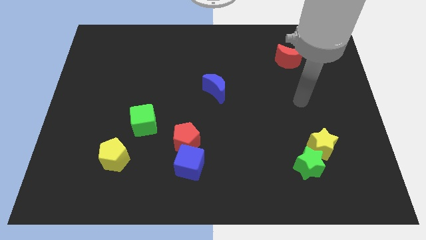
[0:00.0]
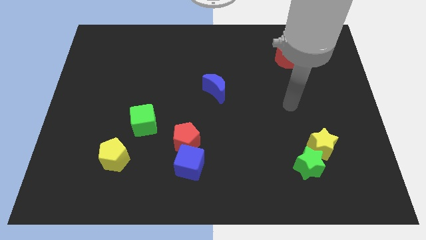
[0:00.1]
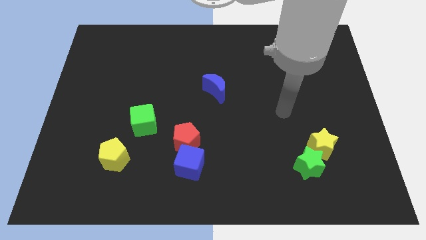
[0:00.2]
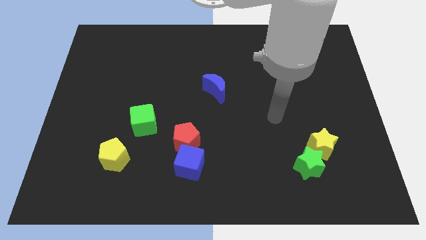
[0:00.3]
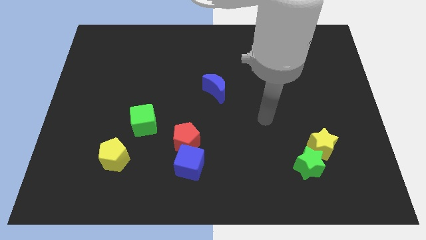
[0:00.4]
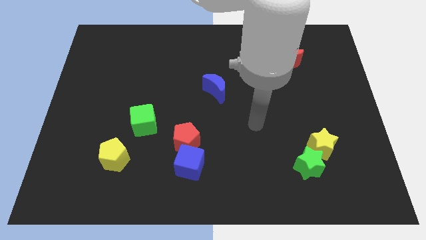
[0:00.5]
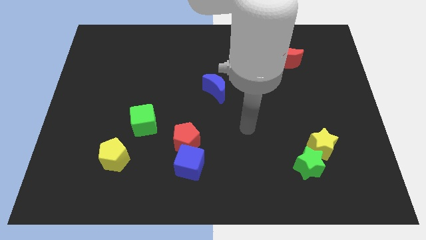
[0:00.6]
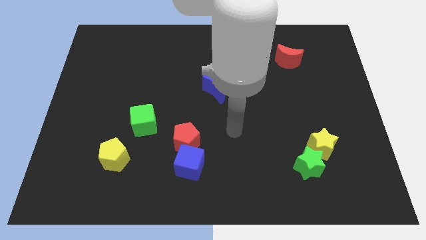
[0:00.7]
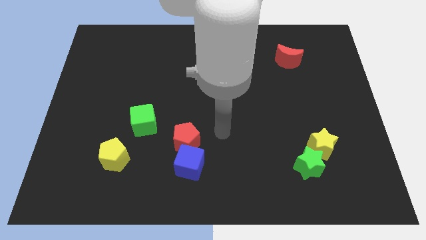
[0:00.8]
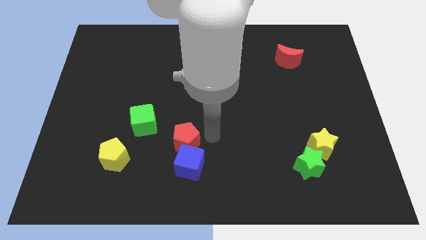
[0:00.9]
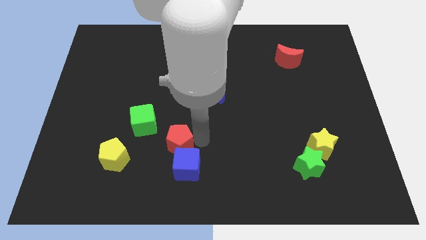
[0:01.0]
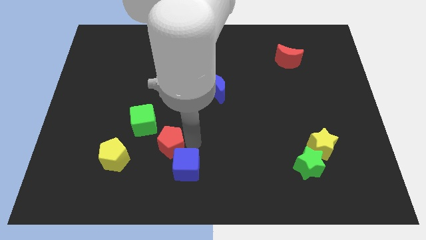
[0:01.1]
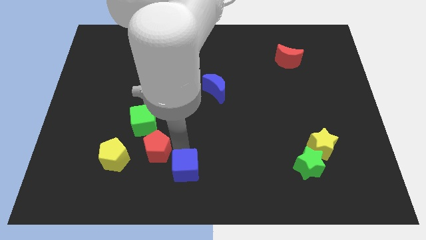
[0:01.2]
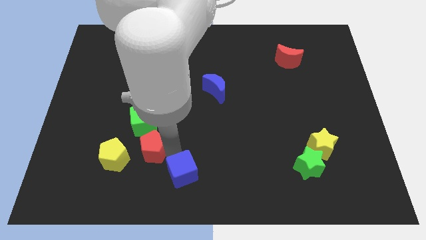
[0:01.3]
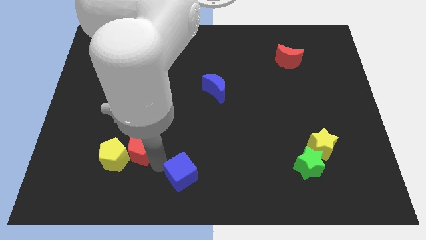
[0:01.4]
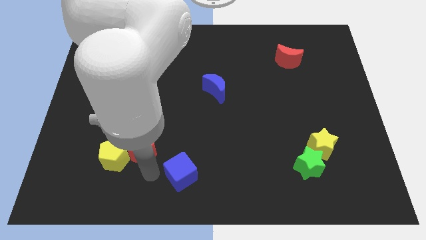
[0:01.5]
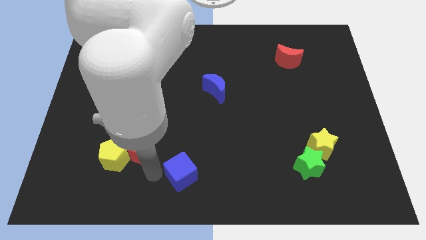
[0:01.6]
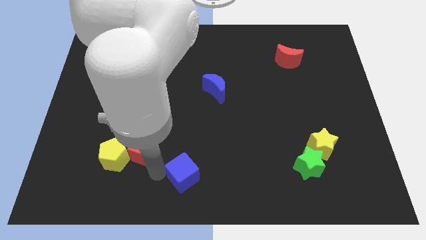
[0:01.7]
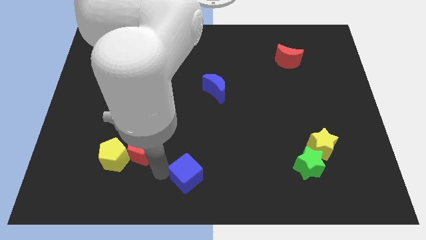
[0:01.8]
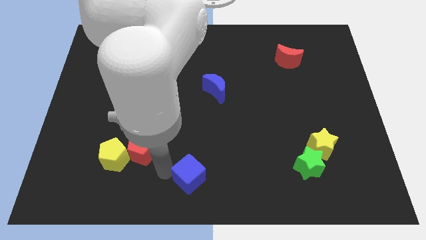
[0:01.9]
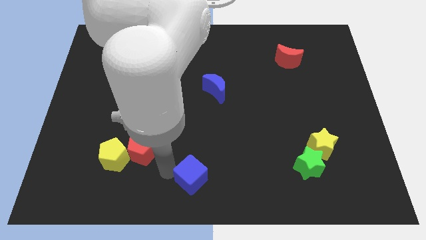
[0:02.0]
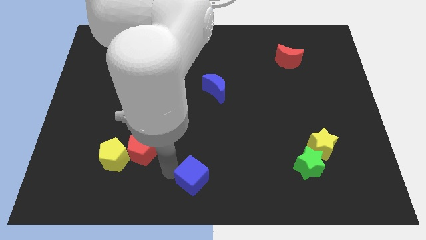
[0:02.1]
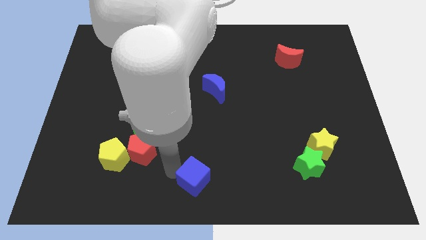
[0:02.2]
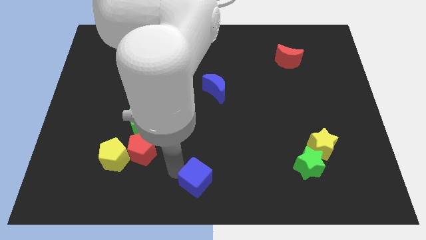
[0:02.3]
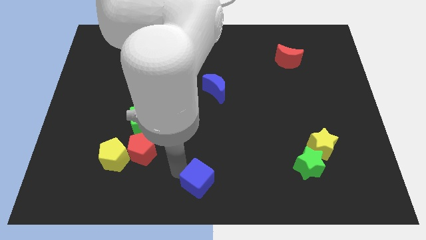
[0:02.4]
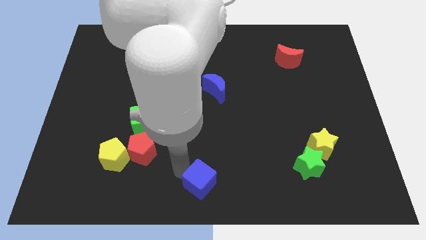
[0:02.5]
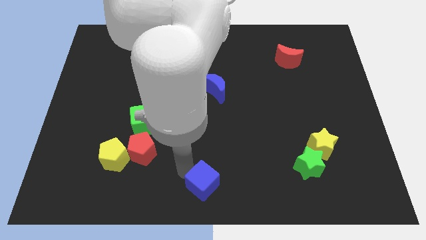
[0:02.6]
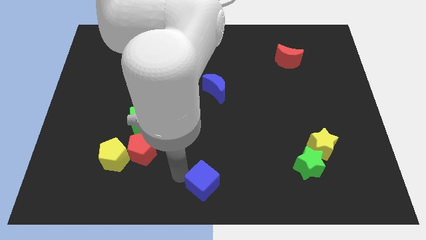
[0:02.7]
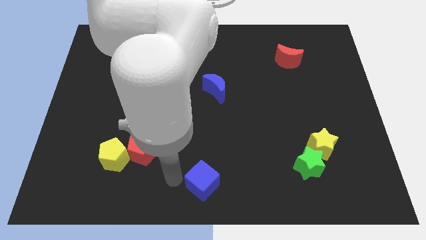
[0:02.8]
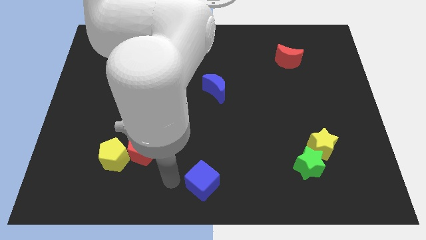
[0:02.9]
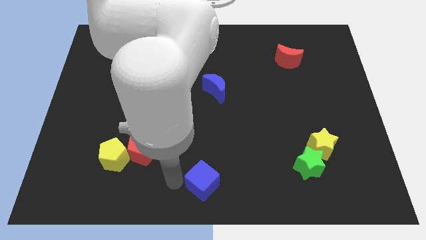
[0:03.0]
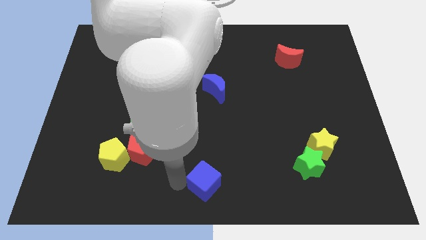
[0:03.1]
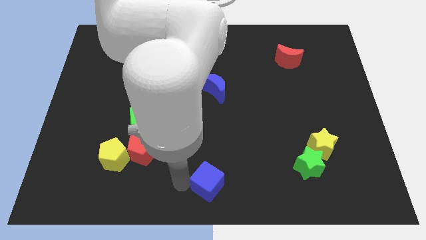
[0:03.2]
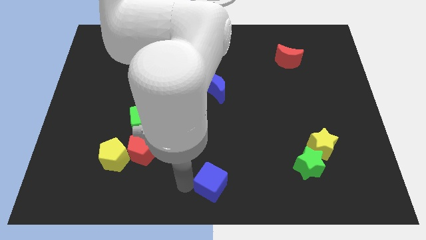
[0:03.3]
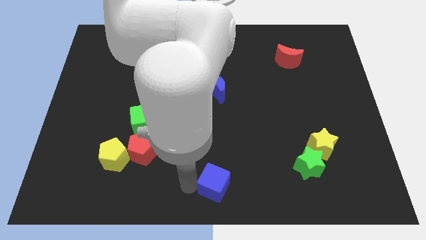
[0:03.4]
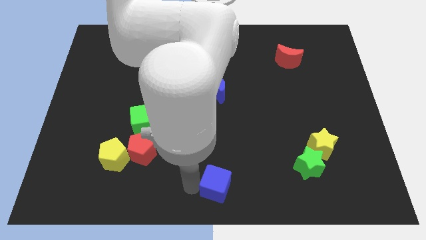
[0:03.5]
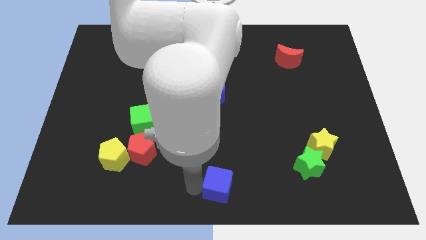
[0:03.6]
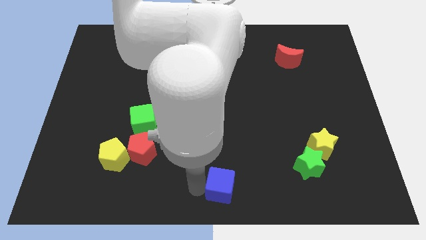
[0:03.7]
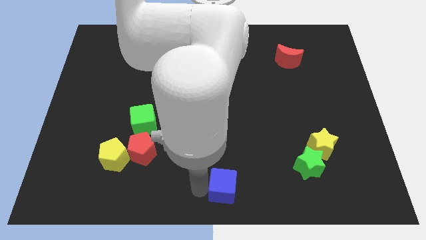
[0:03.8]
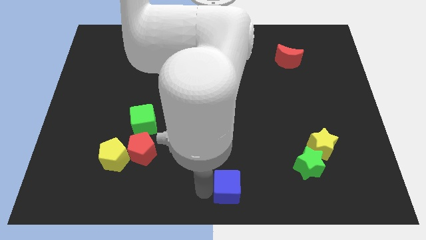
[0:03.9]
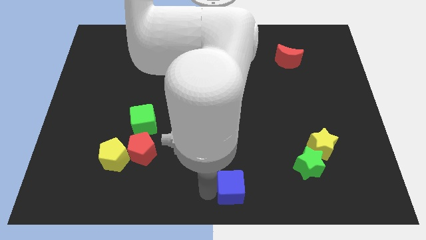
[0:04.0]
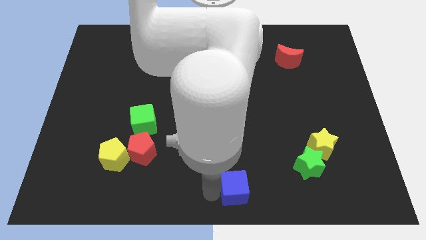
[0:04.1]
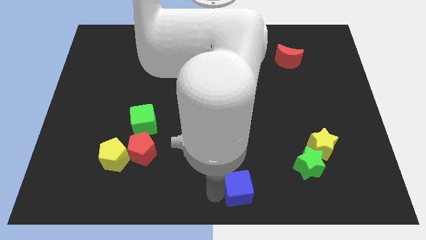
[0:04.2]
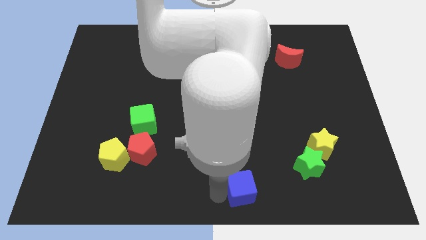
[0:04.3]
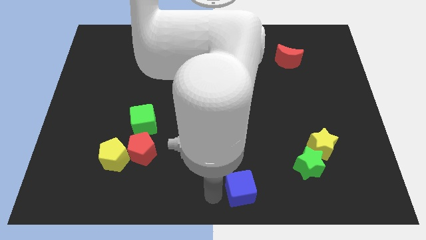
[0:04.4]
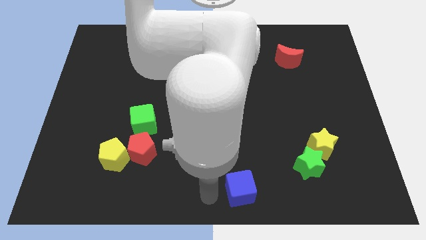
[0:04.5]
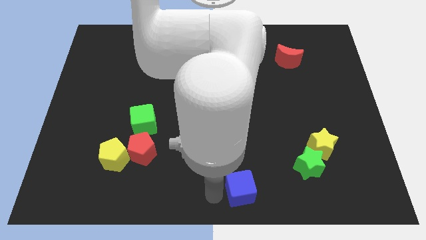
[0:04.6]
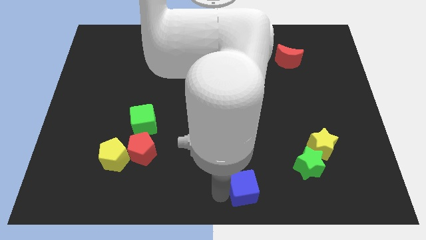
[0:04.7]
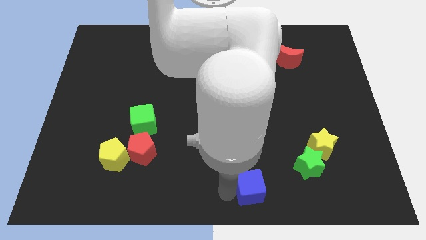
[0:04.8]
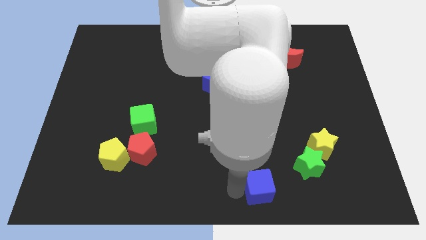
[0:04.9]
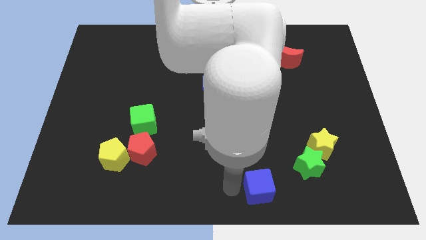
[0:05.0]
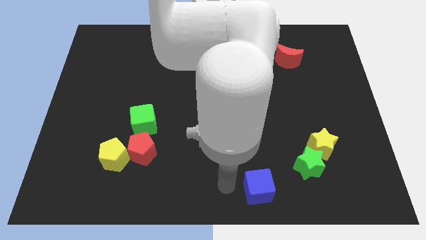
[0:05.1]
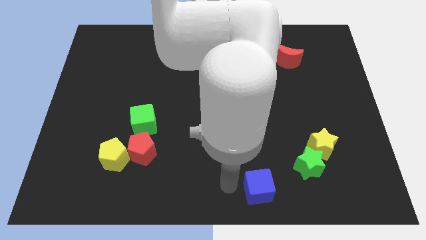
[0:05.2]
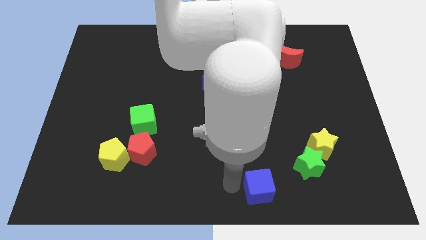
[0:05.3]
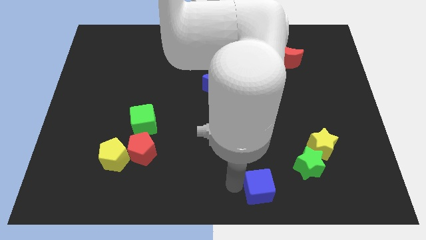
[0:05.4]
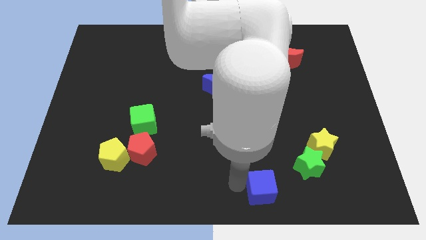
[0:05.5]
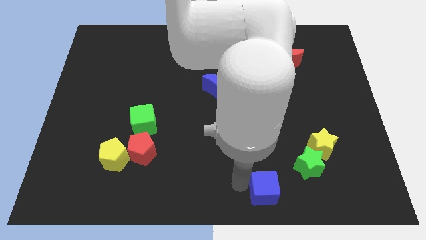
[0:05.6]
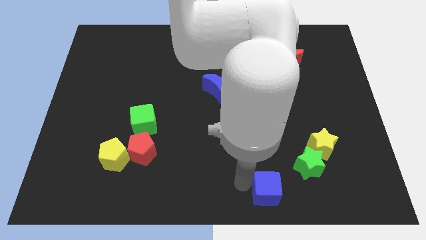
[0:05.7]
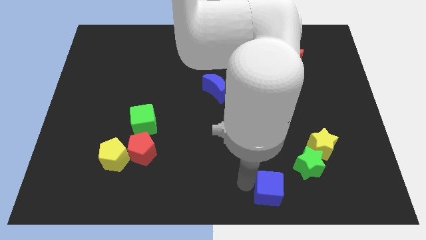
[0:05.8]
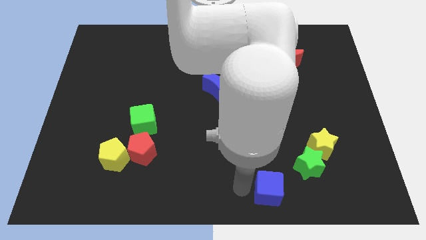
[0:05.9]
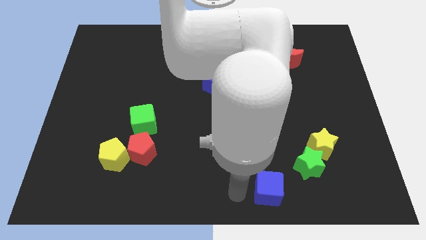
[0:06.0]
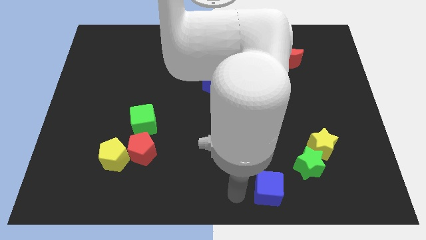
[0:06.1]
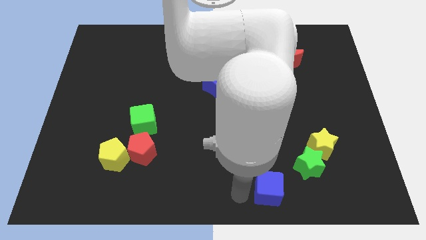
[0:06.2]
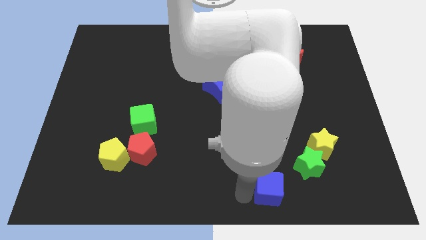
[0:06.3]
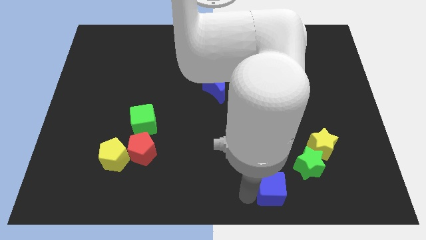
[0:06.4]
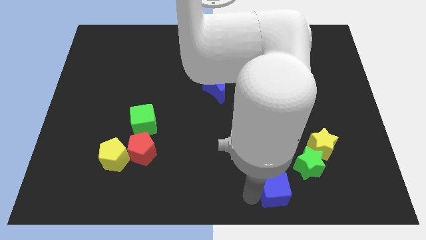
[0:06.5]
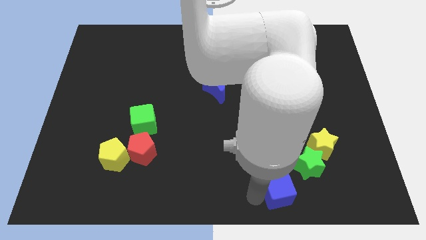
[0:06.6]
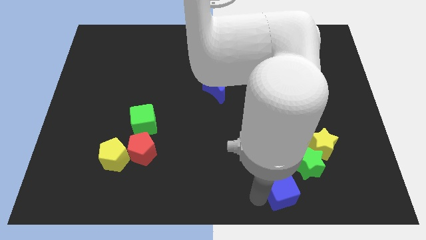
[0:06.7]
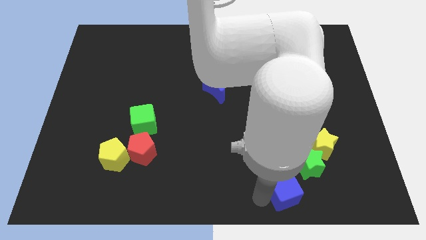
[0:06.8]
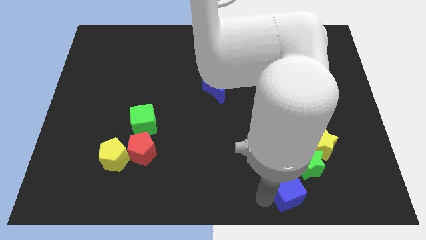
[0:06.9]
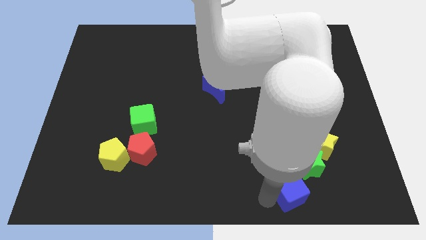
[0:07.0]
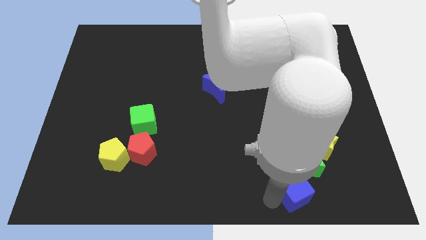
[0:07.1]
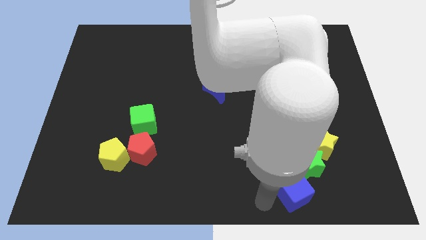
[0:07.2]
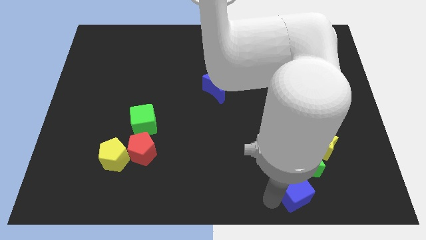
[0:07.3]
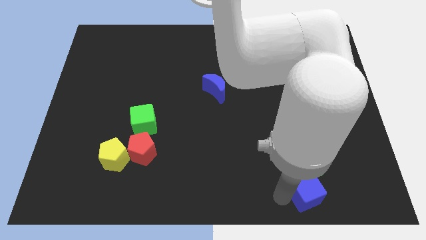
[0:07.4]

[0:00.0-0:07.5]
push the blue cube to the right

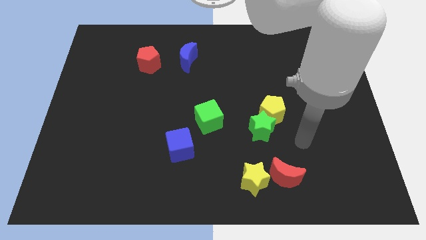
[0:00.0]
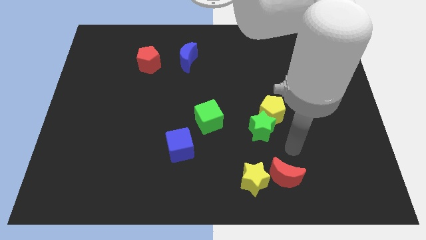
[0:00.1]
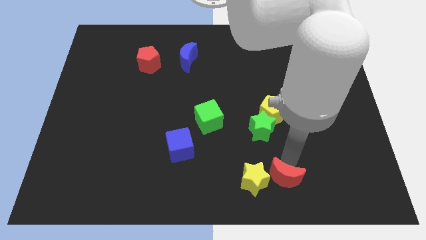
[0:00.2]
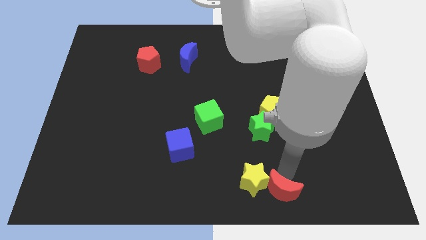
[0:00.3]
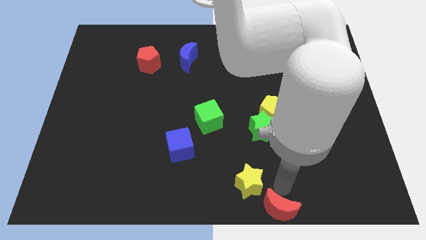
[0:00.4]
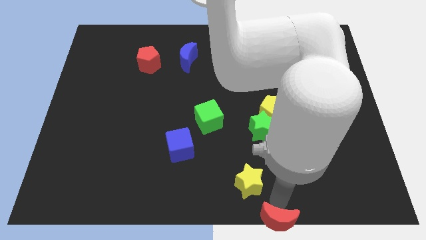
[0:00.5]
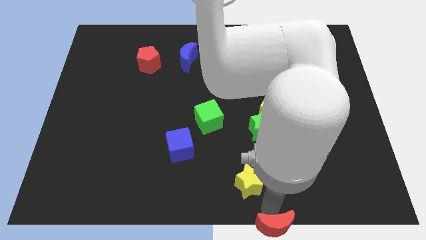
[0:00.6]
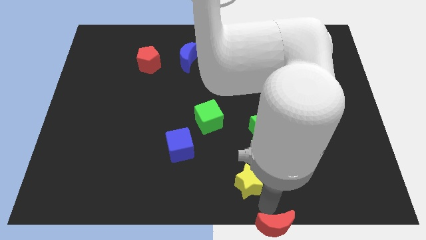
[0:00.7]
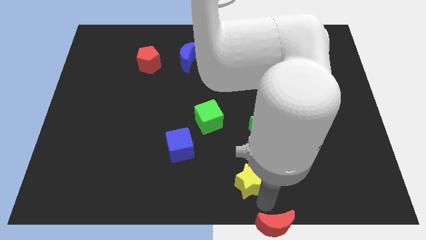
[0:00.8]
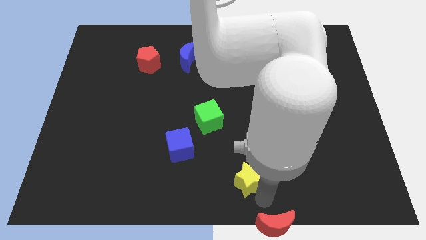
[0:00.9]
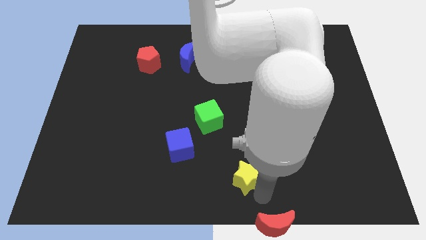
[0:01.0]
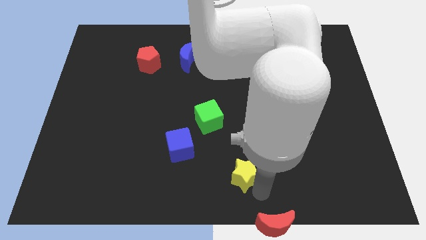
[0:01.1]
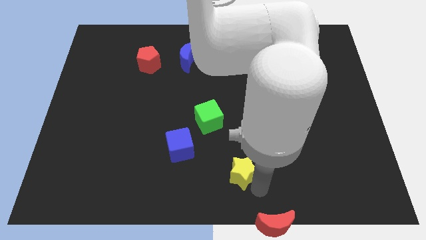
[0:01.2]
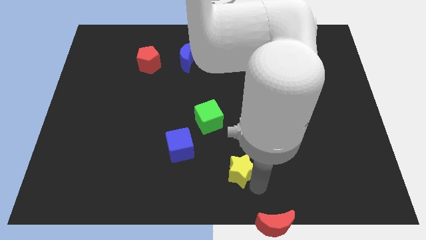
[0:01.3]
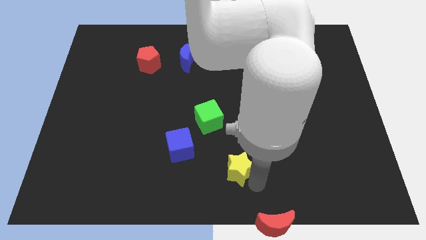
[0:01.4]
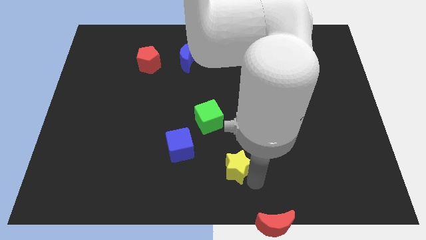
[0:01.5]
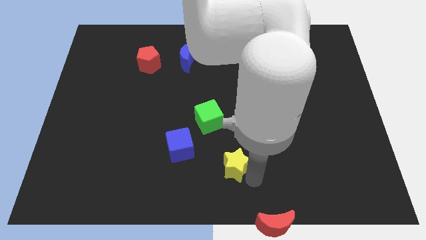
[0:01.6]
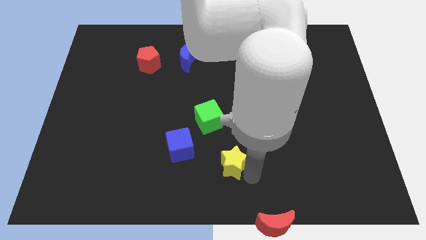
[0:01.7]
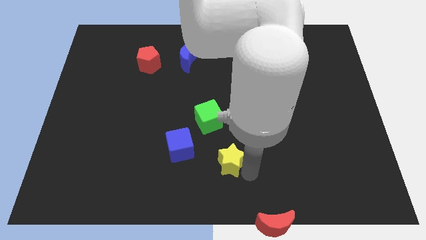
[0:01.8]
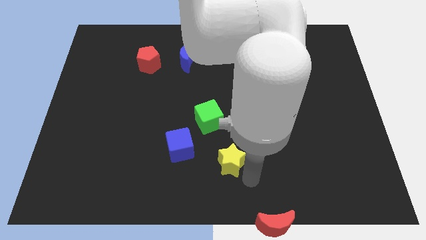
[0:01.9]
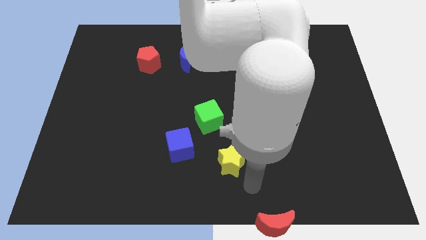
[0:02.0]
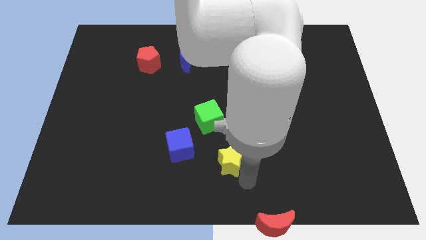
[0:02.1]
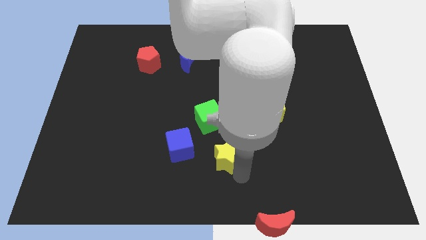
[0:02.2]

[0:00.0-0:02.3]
push the yellow star upwards and then left a little
